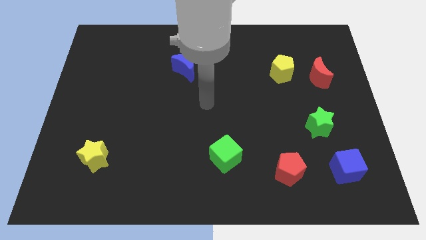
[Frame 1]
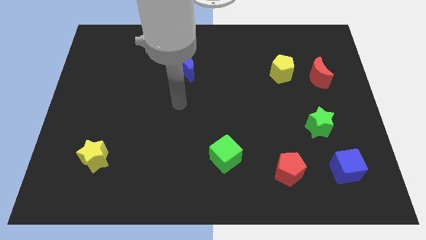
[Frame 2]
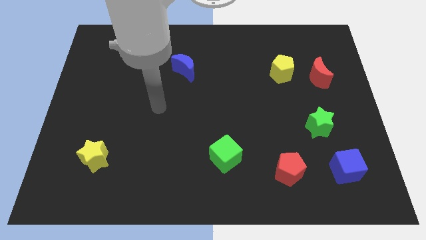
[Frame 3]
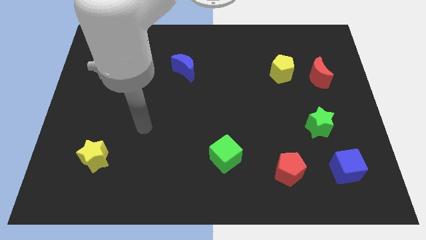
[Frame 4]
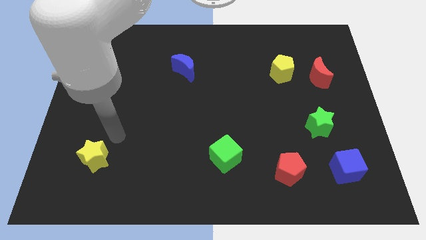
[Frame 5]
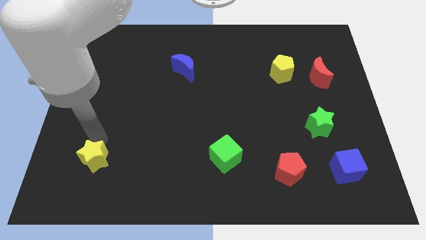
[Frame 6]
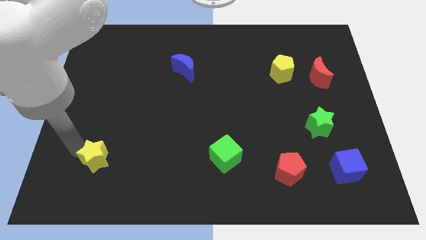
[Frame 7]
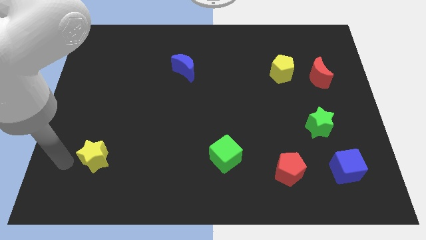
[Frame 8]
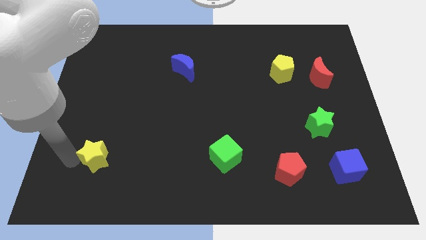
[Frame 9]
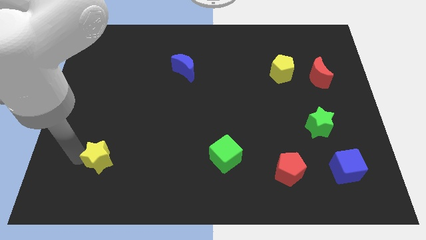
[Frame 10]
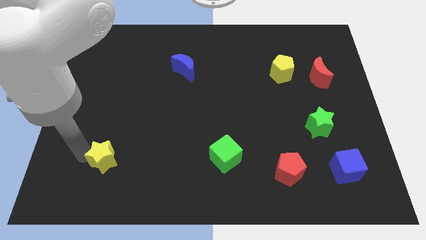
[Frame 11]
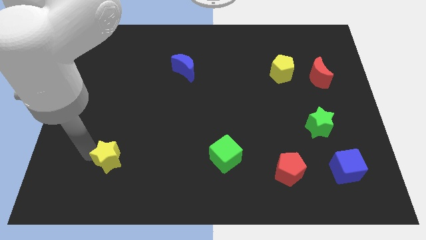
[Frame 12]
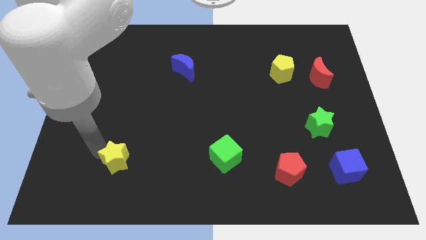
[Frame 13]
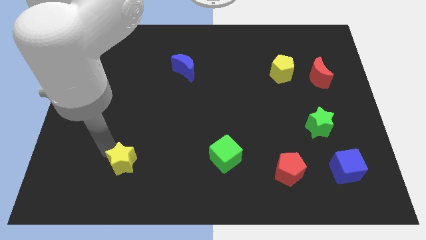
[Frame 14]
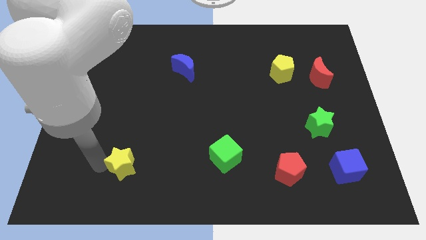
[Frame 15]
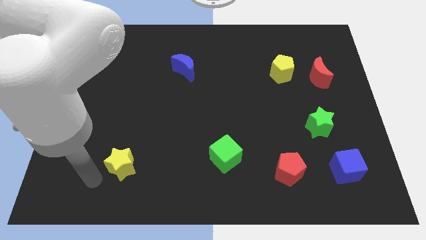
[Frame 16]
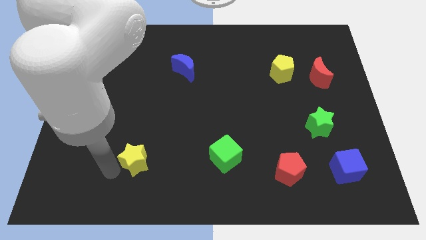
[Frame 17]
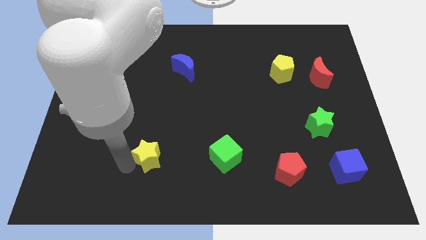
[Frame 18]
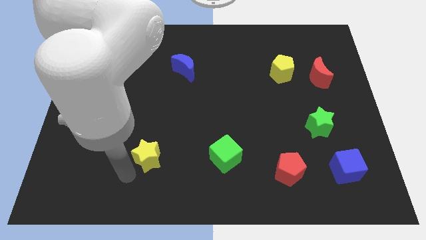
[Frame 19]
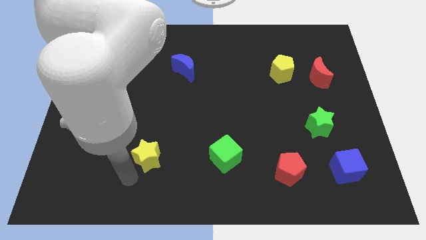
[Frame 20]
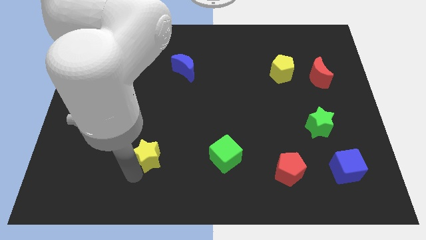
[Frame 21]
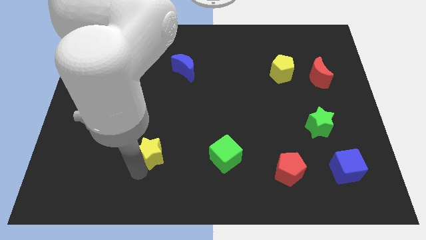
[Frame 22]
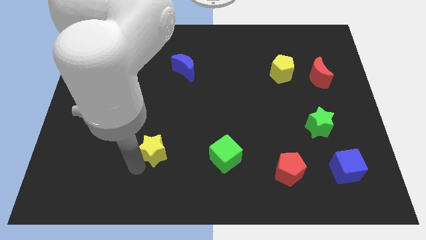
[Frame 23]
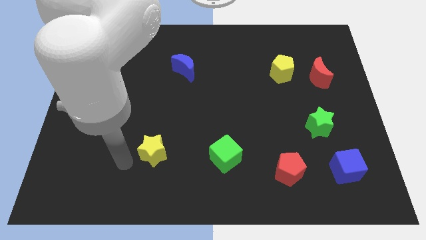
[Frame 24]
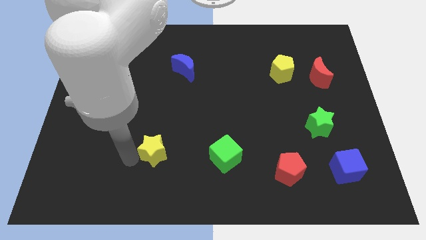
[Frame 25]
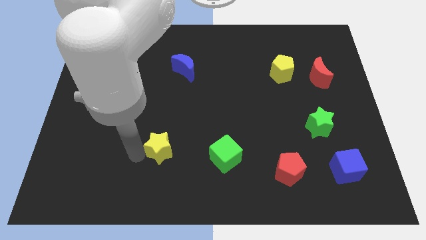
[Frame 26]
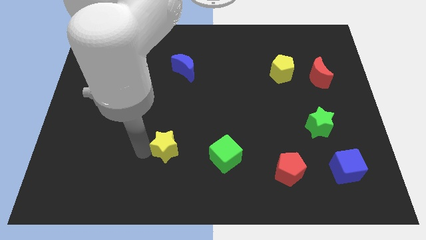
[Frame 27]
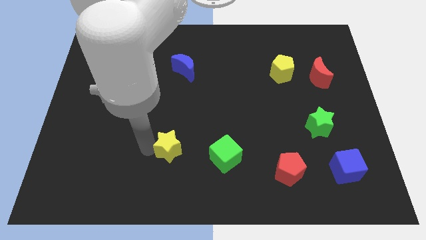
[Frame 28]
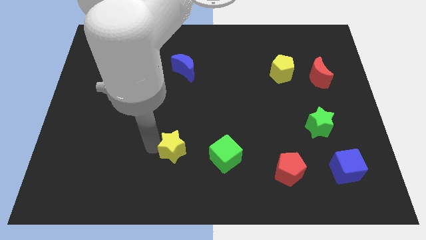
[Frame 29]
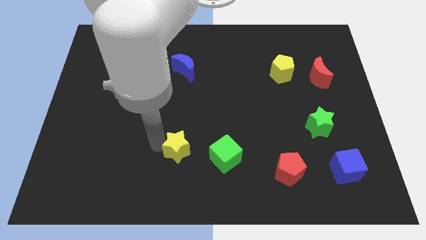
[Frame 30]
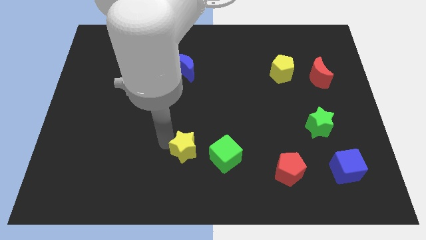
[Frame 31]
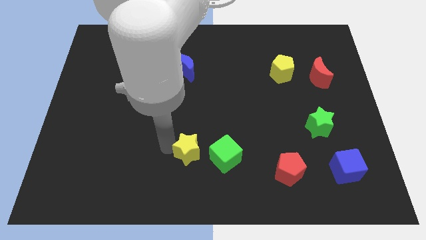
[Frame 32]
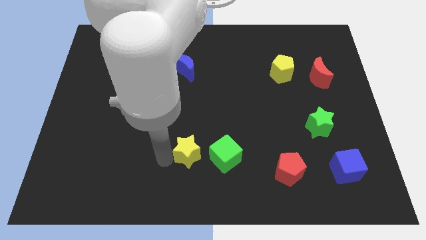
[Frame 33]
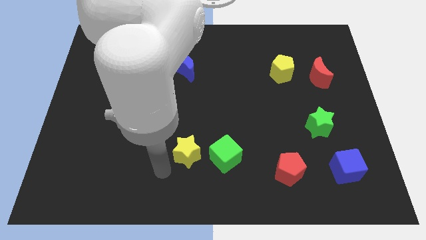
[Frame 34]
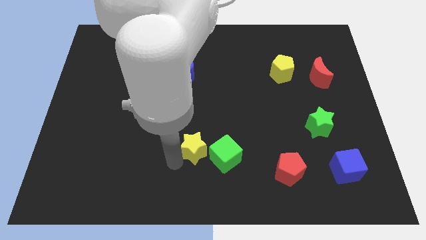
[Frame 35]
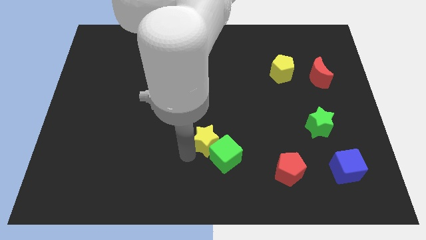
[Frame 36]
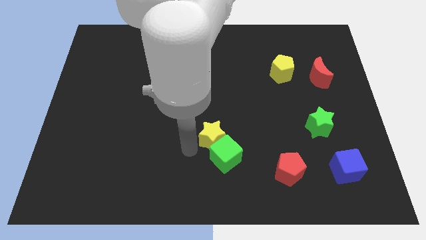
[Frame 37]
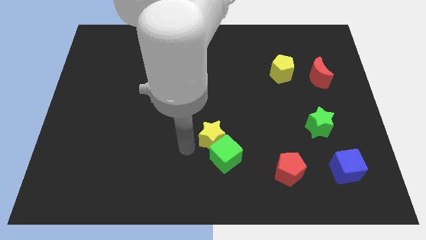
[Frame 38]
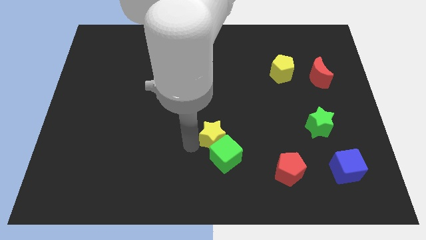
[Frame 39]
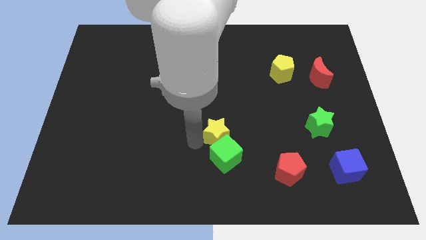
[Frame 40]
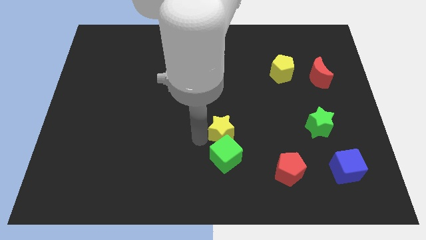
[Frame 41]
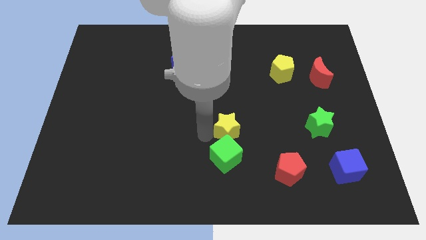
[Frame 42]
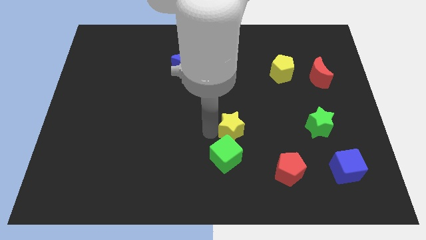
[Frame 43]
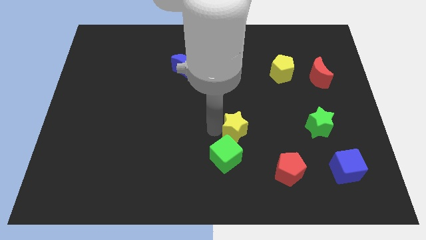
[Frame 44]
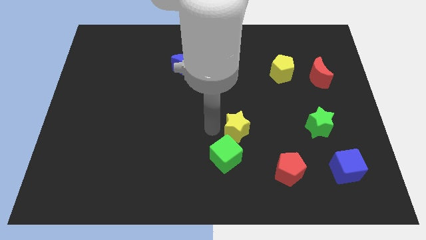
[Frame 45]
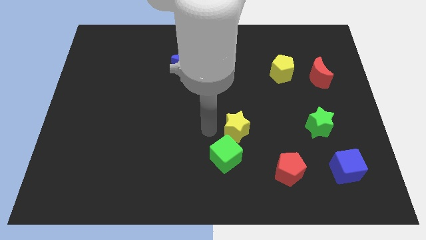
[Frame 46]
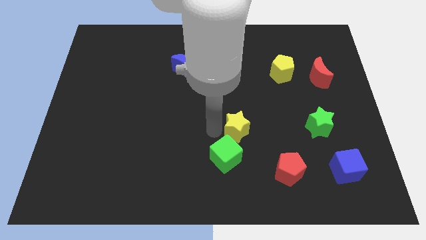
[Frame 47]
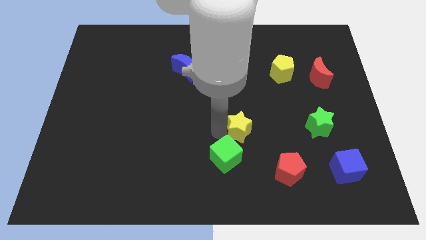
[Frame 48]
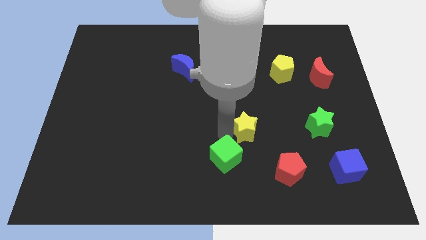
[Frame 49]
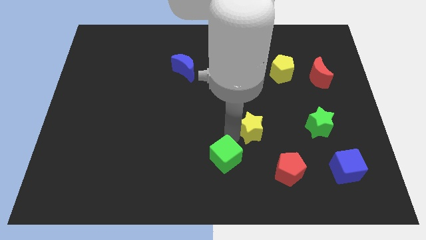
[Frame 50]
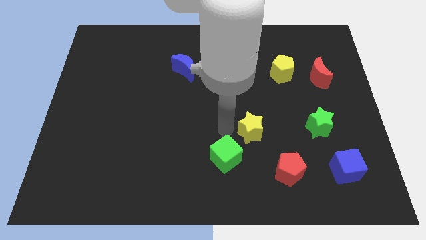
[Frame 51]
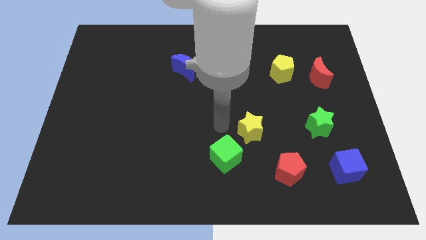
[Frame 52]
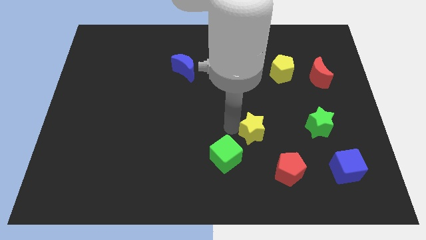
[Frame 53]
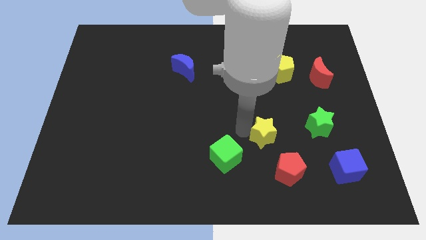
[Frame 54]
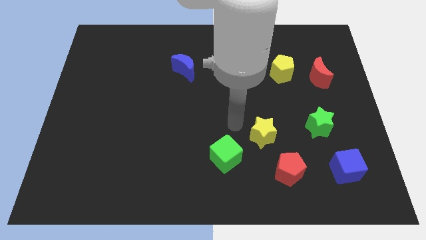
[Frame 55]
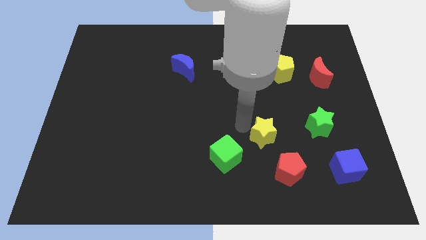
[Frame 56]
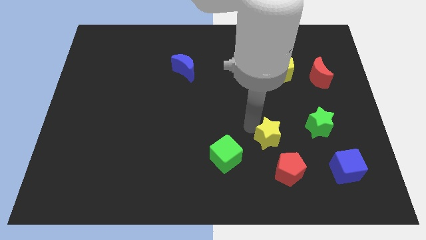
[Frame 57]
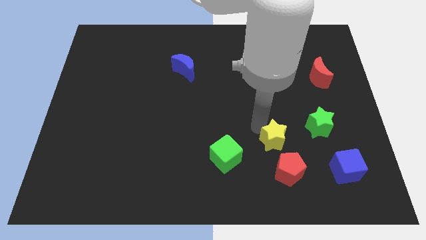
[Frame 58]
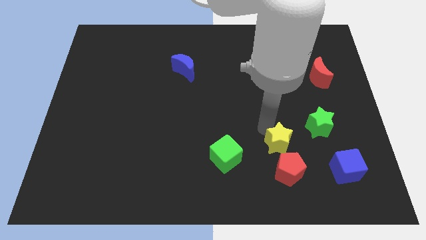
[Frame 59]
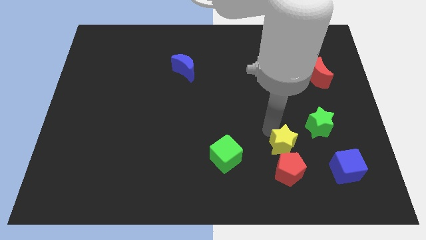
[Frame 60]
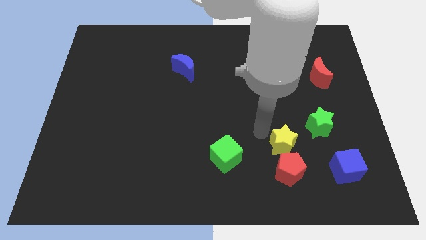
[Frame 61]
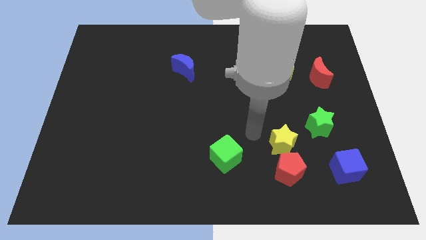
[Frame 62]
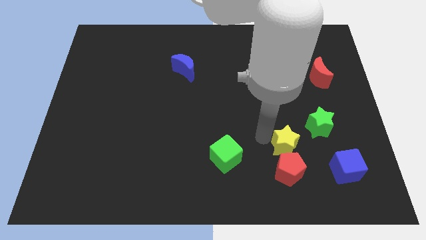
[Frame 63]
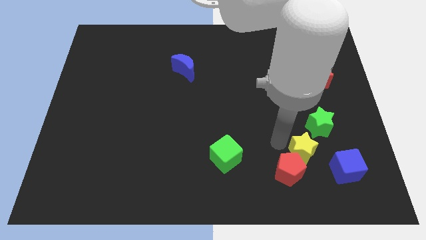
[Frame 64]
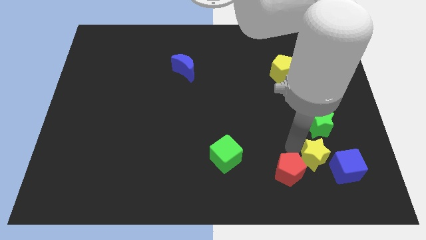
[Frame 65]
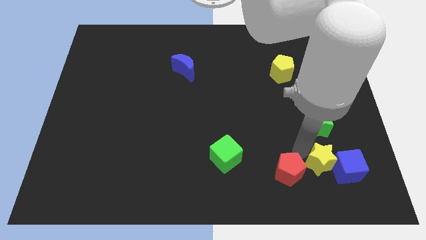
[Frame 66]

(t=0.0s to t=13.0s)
move the yellow star close to the blue cube
